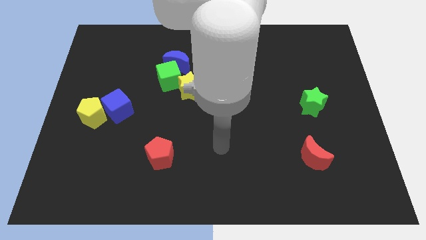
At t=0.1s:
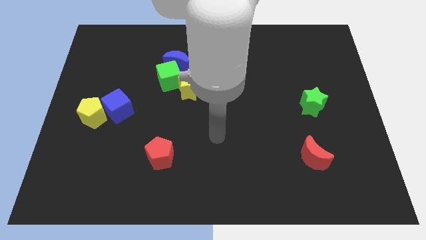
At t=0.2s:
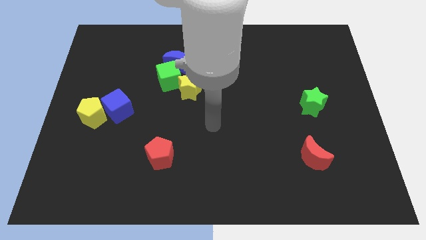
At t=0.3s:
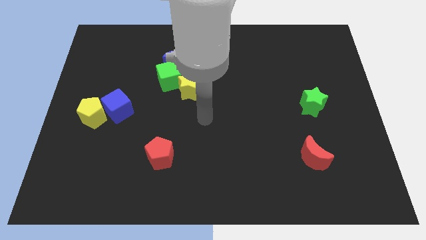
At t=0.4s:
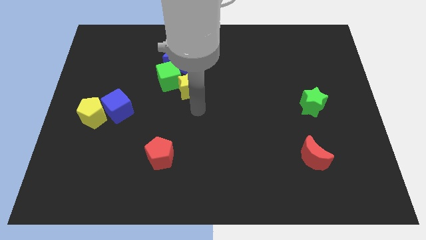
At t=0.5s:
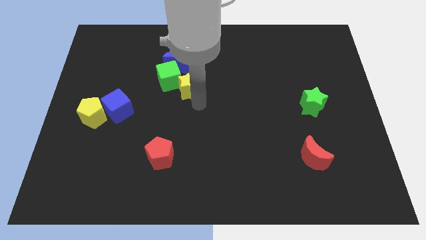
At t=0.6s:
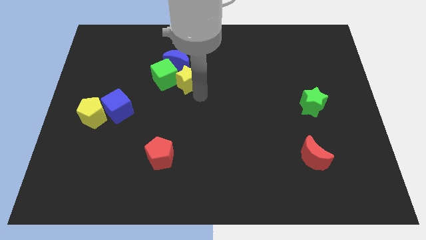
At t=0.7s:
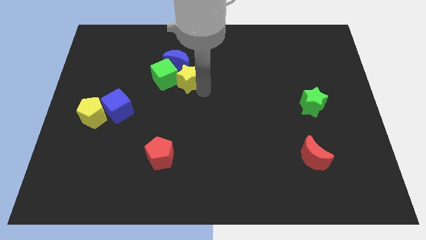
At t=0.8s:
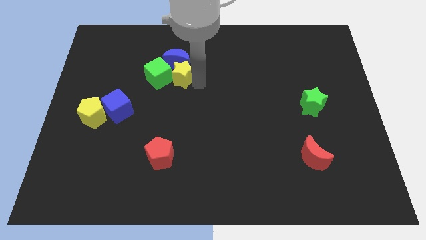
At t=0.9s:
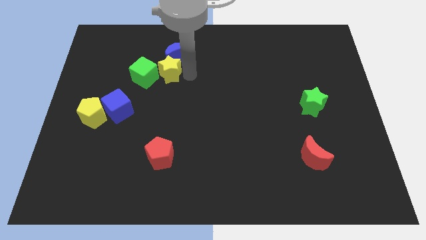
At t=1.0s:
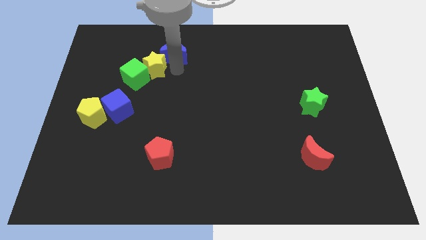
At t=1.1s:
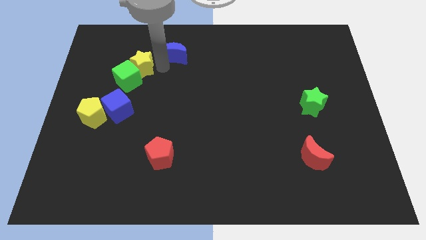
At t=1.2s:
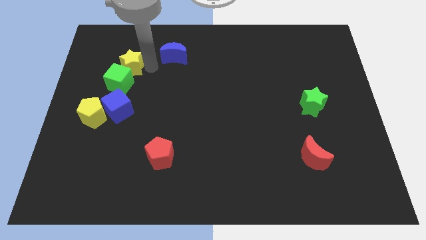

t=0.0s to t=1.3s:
separate the green cube from the blue moon and yellow star

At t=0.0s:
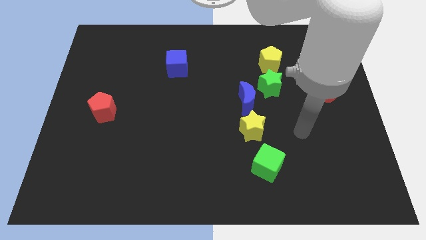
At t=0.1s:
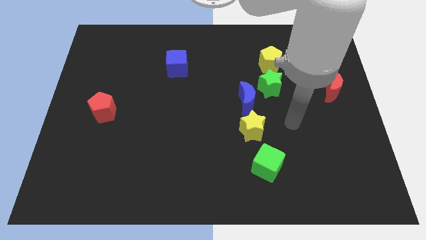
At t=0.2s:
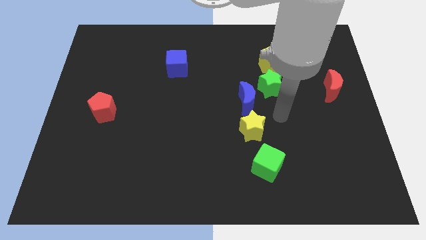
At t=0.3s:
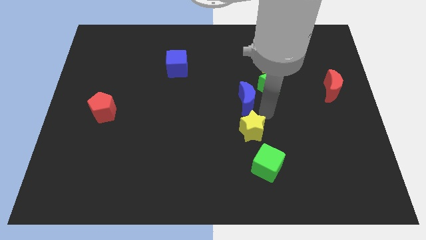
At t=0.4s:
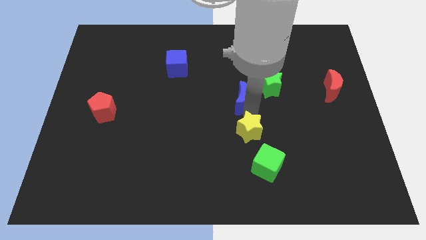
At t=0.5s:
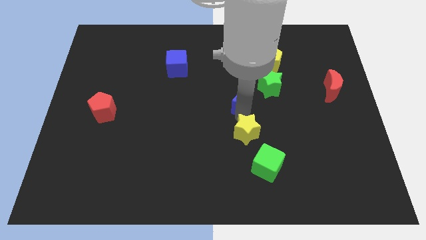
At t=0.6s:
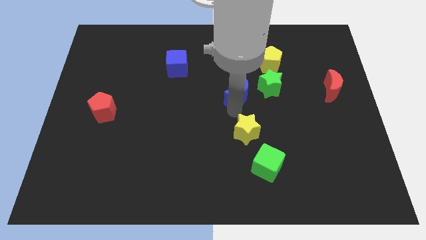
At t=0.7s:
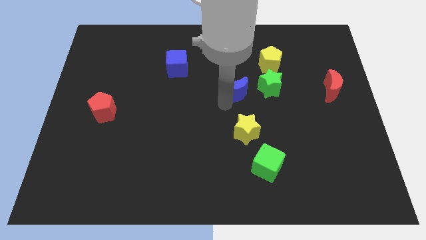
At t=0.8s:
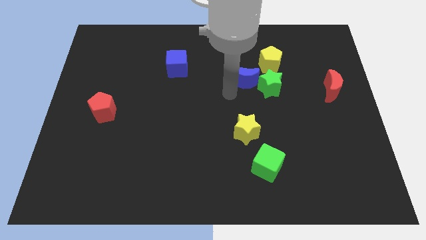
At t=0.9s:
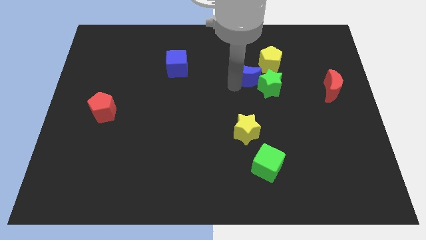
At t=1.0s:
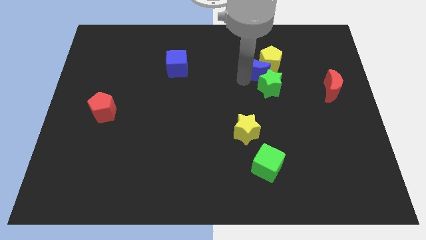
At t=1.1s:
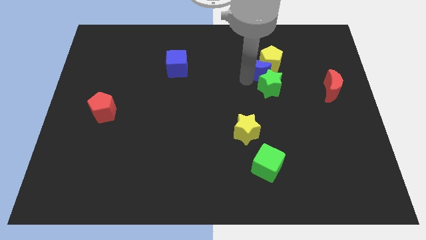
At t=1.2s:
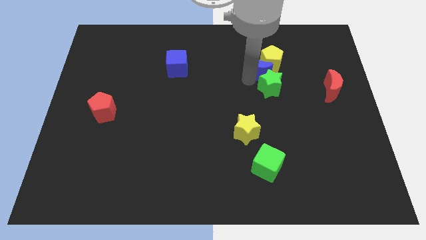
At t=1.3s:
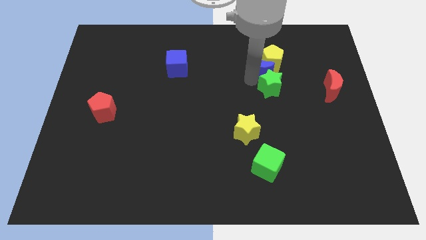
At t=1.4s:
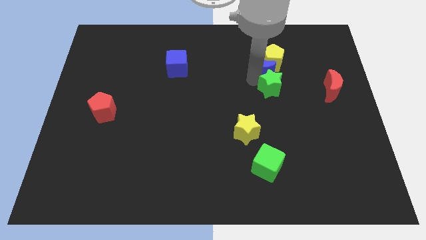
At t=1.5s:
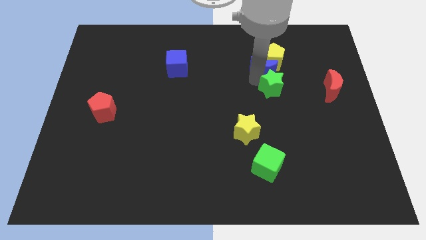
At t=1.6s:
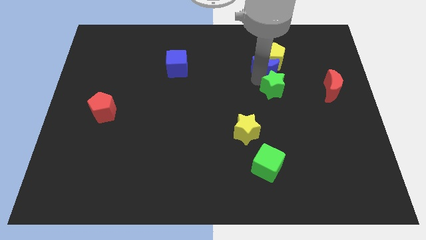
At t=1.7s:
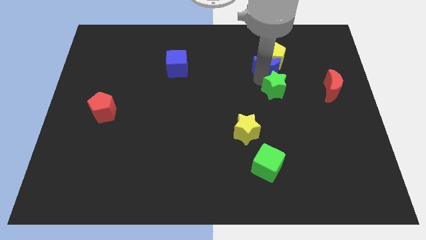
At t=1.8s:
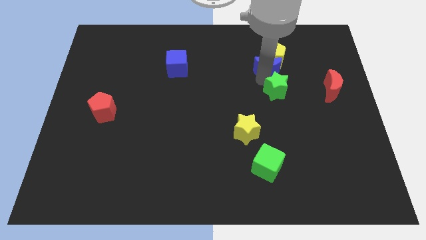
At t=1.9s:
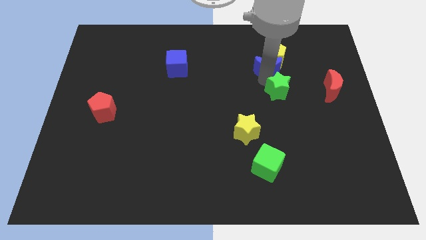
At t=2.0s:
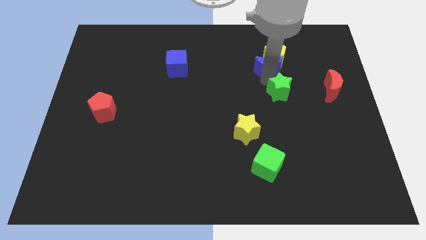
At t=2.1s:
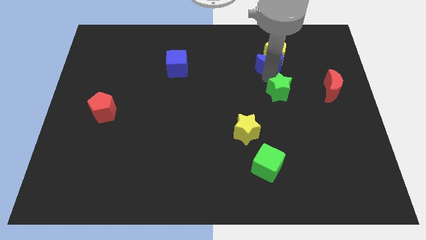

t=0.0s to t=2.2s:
move the green star away from the blue moon and yellow pentagon

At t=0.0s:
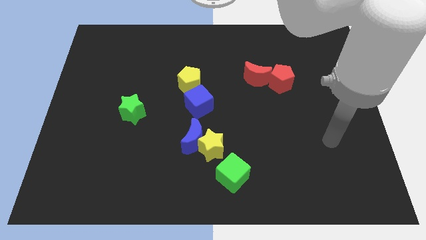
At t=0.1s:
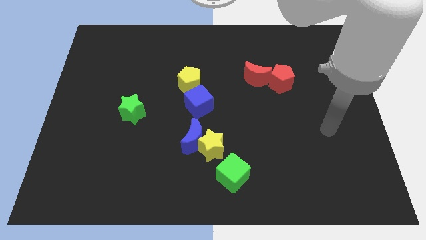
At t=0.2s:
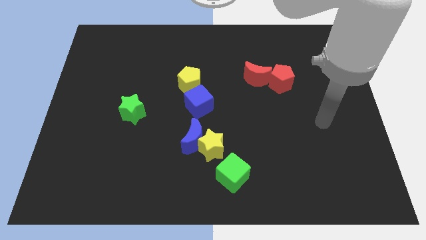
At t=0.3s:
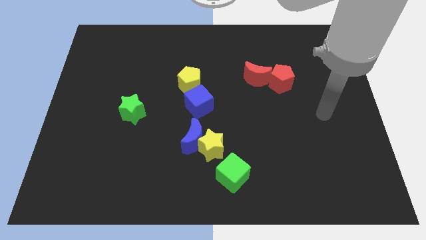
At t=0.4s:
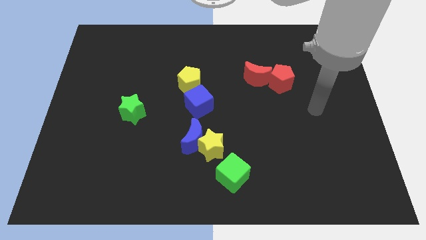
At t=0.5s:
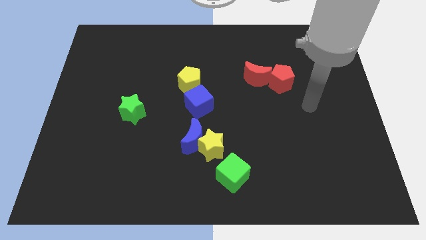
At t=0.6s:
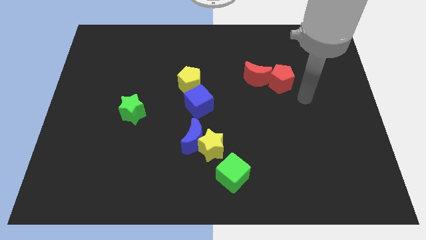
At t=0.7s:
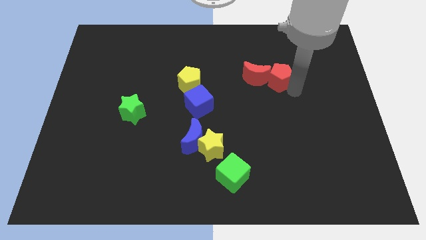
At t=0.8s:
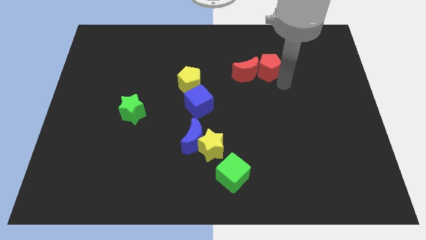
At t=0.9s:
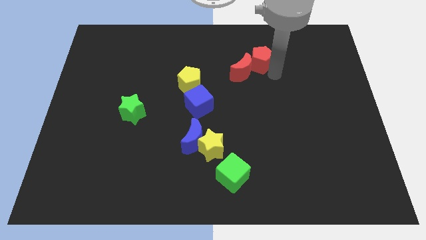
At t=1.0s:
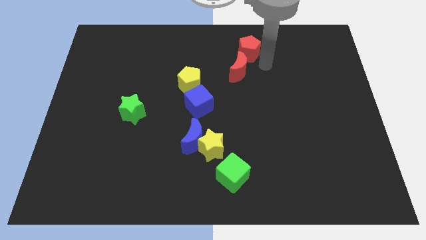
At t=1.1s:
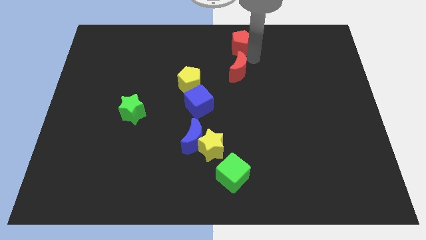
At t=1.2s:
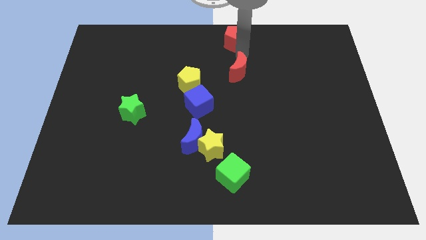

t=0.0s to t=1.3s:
pull the red moon apart from the red pentagon

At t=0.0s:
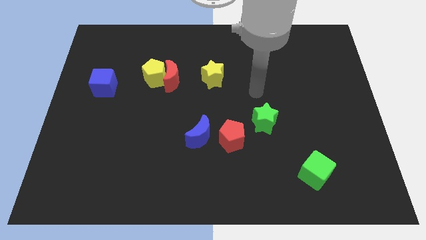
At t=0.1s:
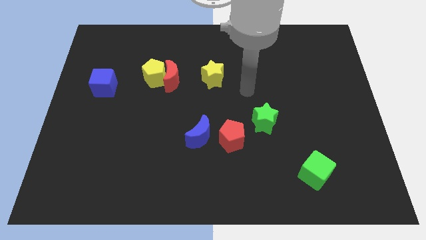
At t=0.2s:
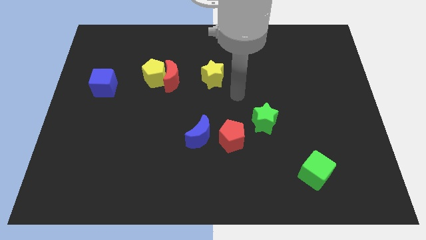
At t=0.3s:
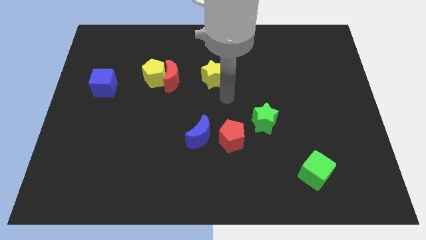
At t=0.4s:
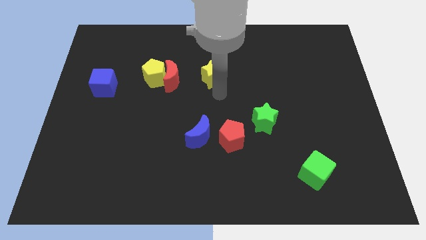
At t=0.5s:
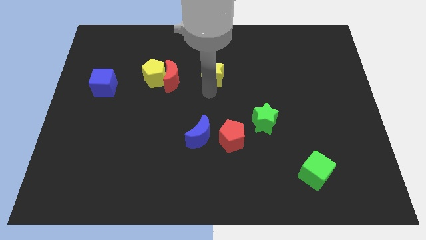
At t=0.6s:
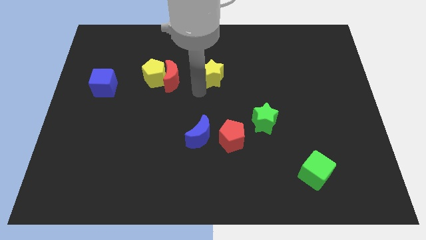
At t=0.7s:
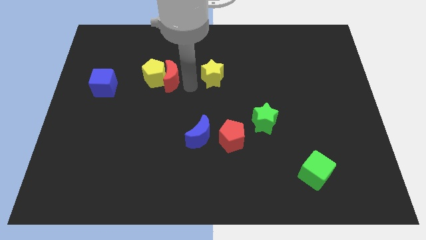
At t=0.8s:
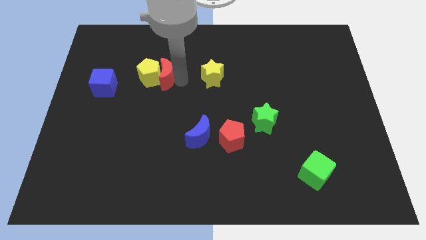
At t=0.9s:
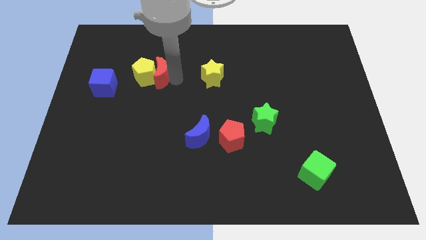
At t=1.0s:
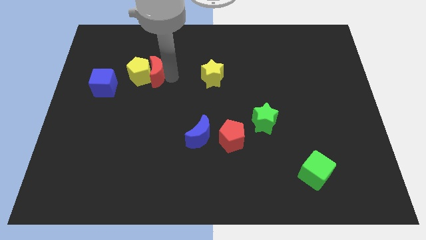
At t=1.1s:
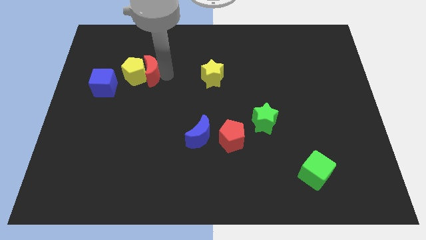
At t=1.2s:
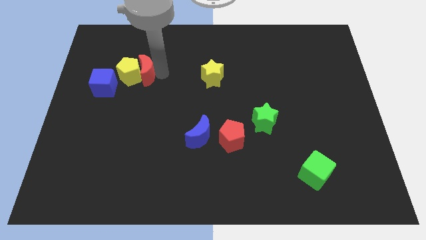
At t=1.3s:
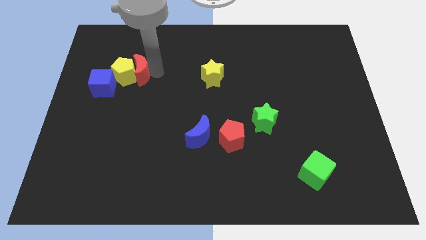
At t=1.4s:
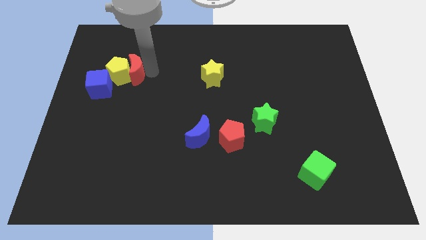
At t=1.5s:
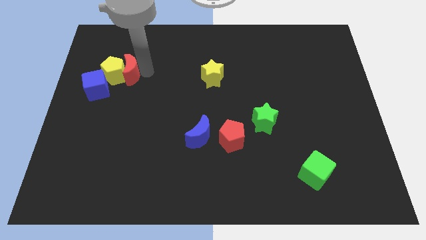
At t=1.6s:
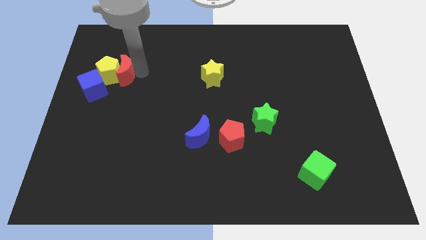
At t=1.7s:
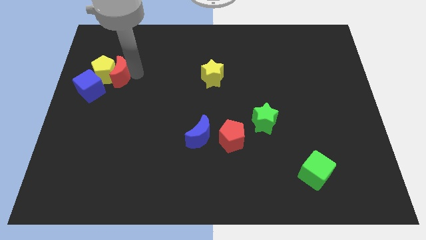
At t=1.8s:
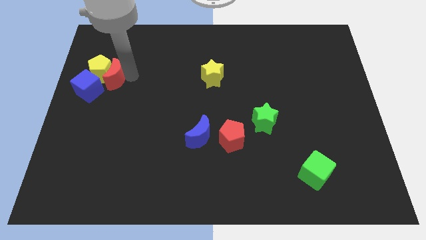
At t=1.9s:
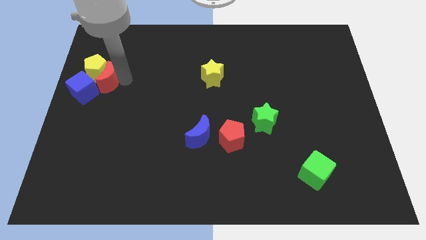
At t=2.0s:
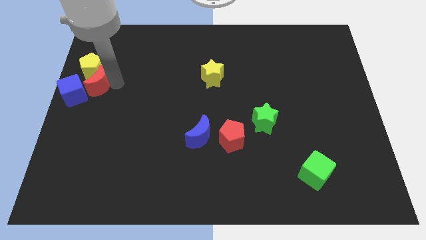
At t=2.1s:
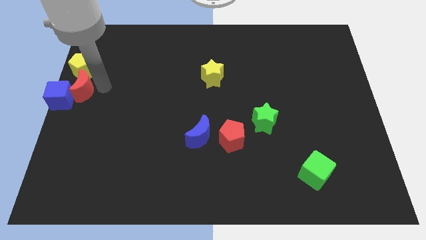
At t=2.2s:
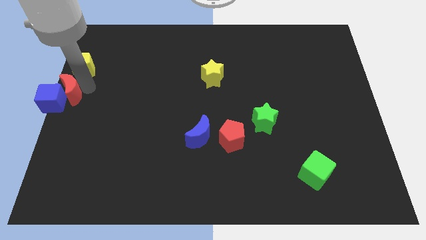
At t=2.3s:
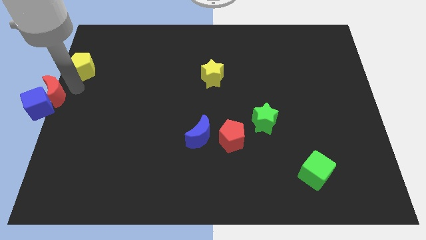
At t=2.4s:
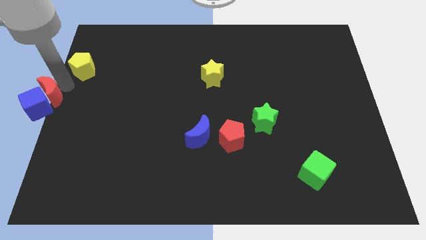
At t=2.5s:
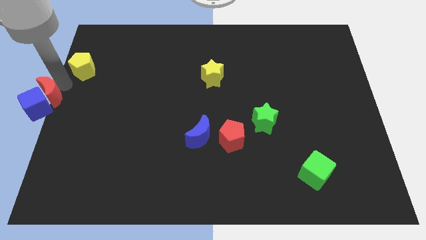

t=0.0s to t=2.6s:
pull the yellow pentagon apart from the red moon

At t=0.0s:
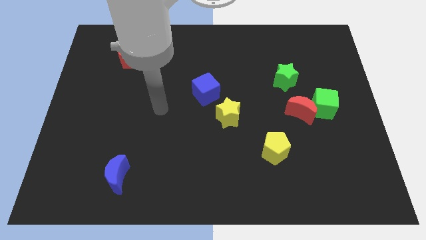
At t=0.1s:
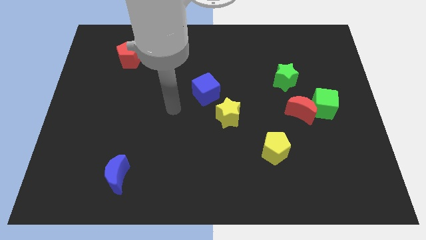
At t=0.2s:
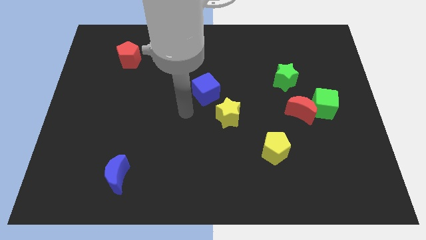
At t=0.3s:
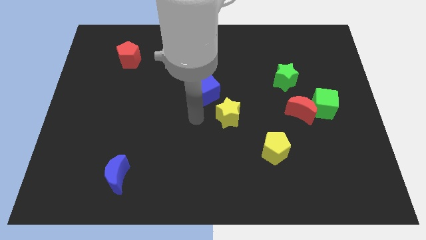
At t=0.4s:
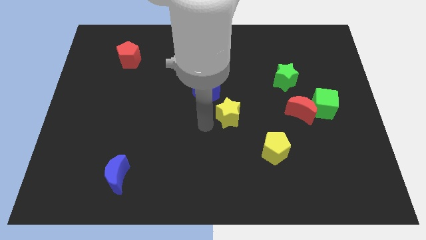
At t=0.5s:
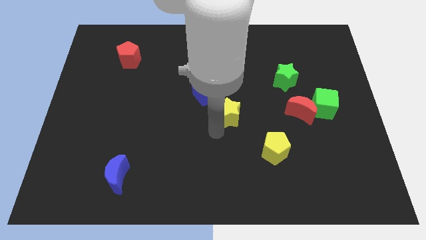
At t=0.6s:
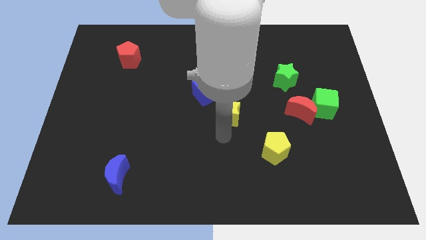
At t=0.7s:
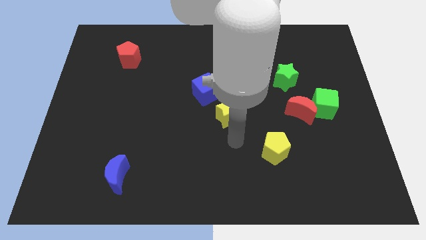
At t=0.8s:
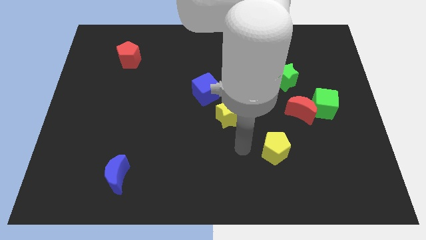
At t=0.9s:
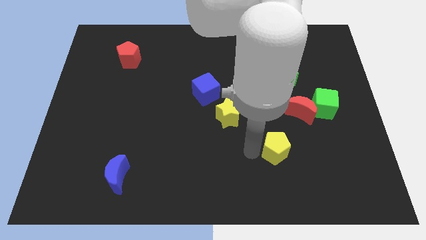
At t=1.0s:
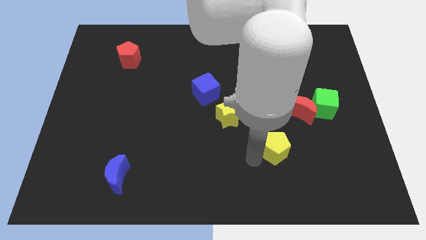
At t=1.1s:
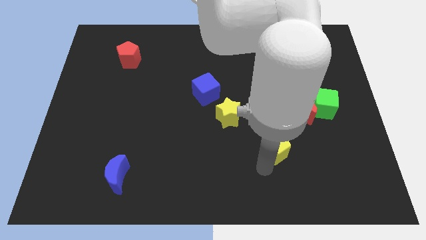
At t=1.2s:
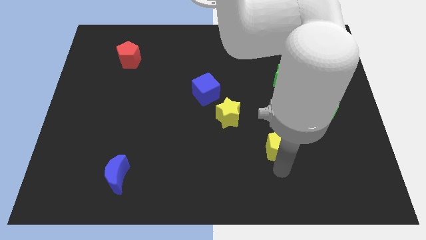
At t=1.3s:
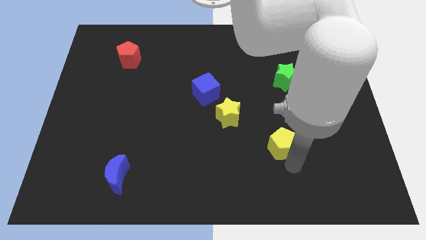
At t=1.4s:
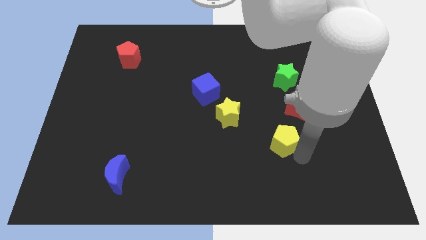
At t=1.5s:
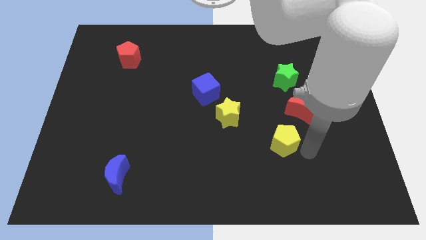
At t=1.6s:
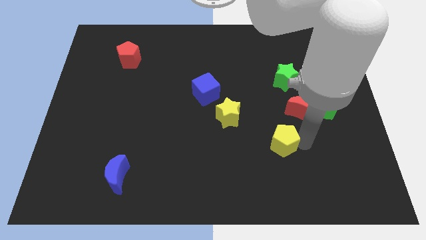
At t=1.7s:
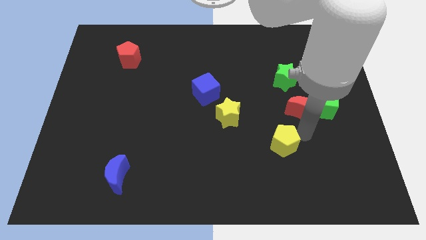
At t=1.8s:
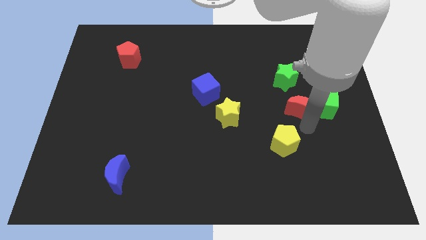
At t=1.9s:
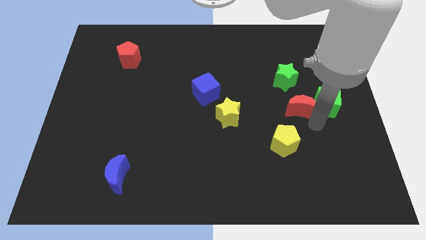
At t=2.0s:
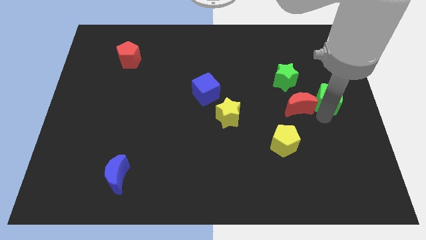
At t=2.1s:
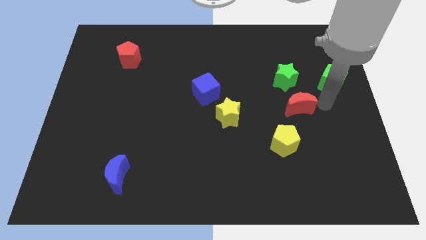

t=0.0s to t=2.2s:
pull the red moon apart from the green cube
